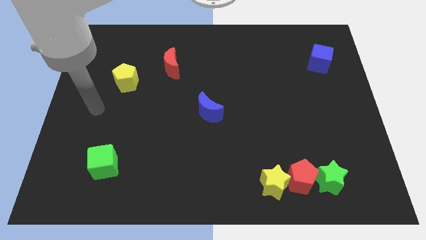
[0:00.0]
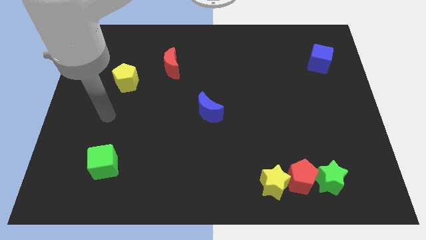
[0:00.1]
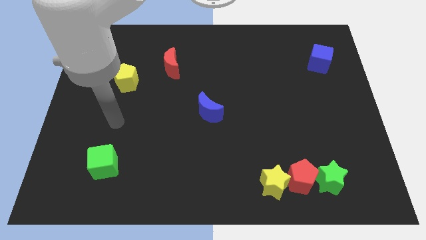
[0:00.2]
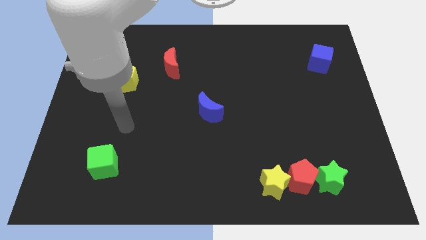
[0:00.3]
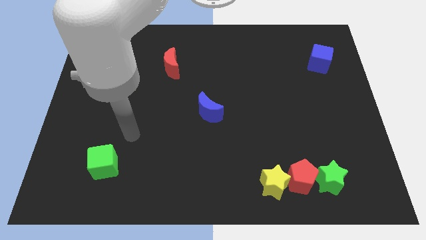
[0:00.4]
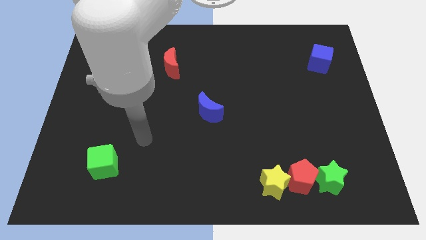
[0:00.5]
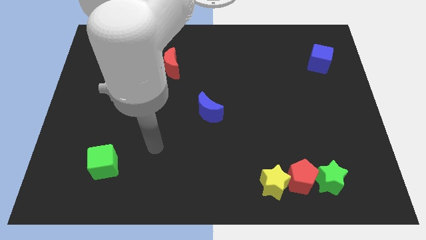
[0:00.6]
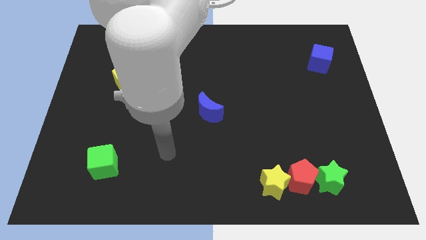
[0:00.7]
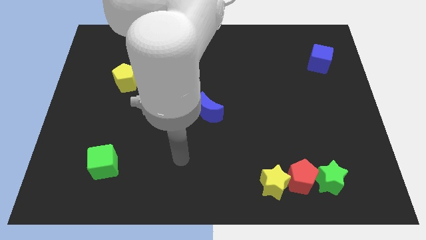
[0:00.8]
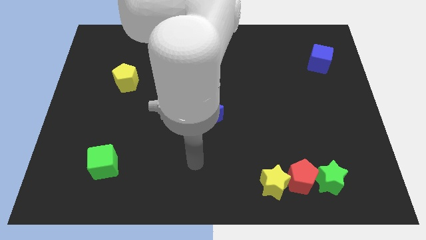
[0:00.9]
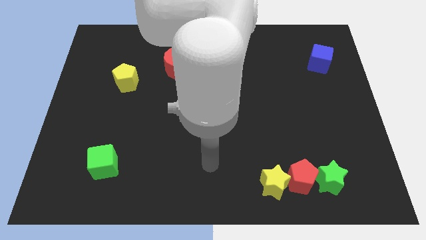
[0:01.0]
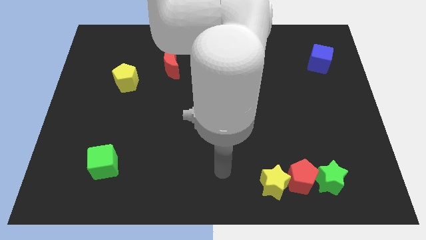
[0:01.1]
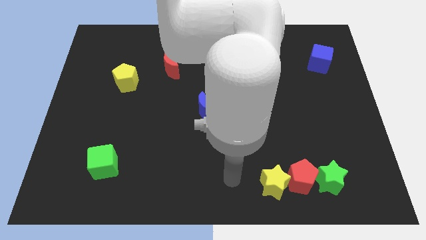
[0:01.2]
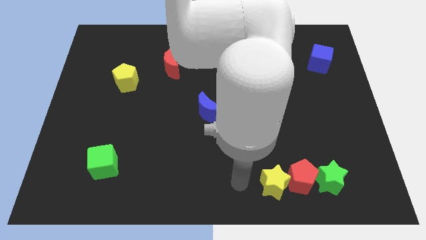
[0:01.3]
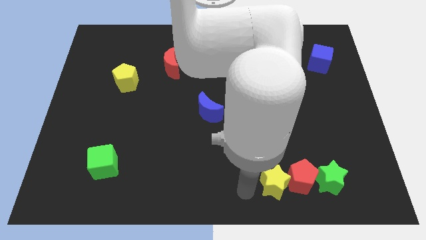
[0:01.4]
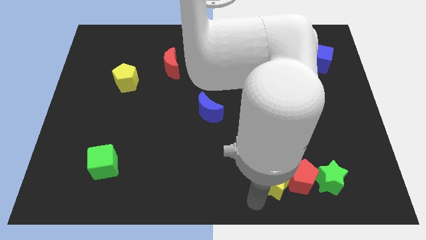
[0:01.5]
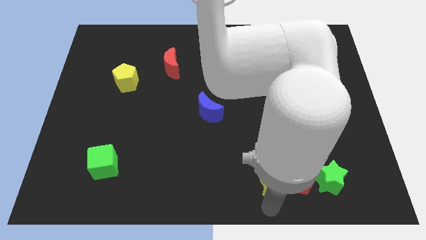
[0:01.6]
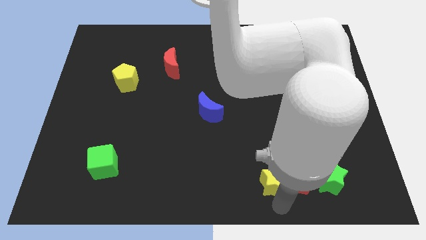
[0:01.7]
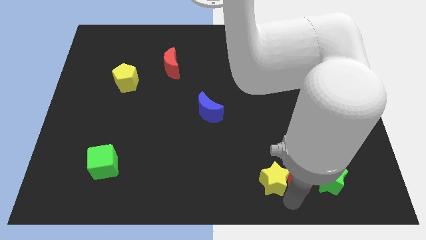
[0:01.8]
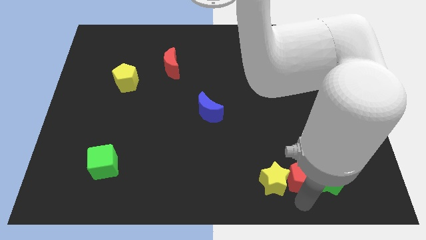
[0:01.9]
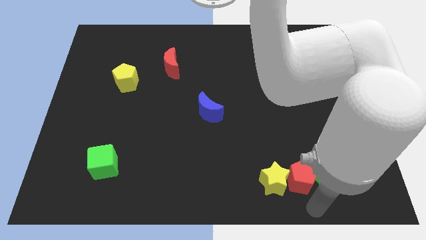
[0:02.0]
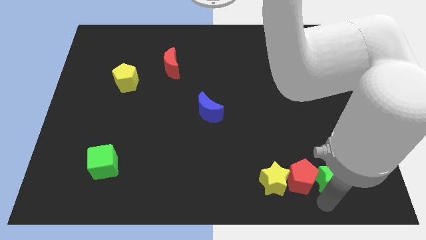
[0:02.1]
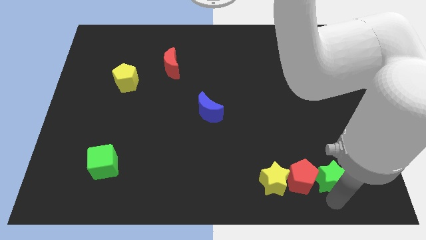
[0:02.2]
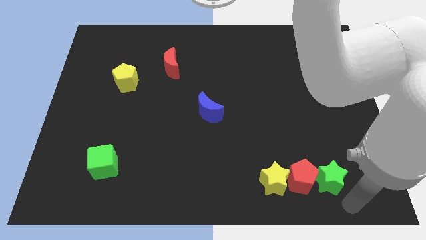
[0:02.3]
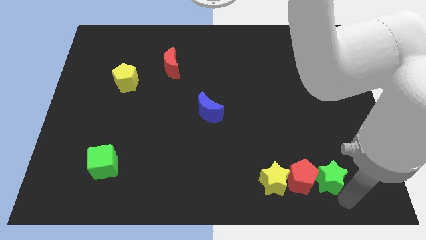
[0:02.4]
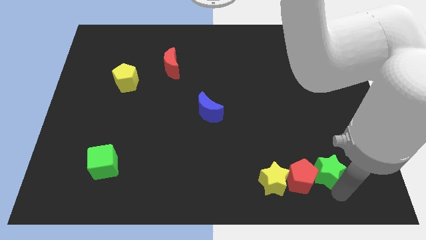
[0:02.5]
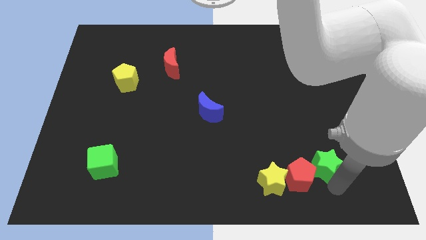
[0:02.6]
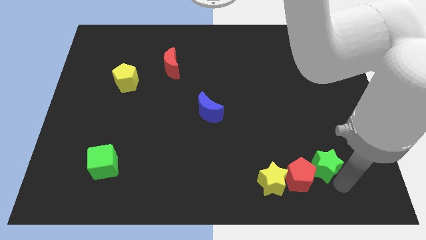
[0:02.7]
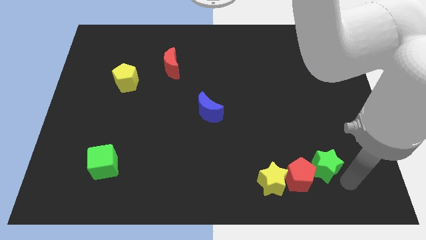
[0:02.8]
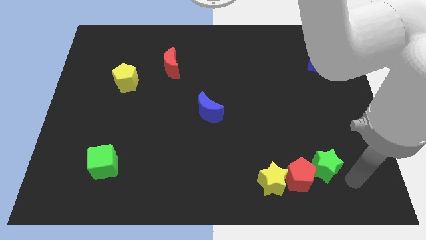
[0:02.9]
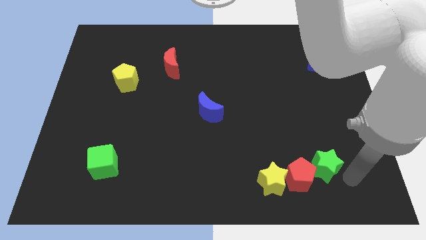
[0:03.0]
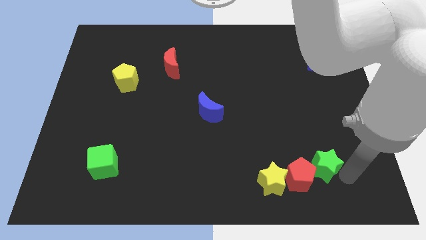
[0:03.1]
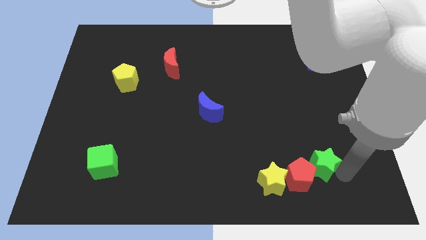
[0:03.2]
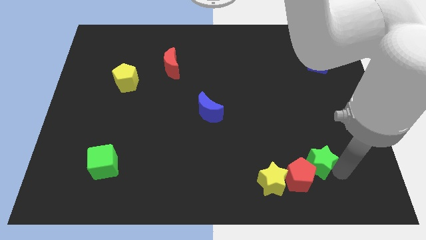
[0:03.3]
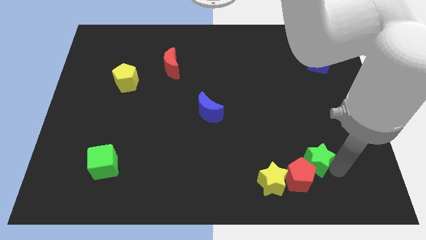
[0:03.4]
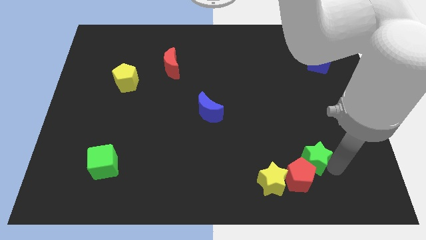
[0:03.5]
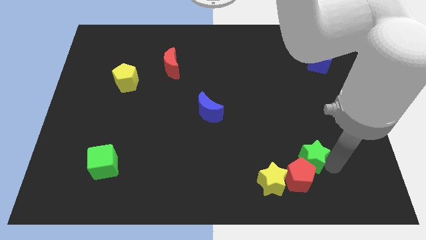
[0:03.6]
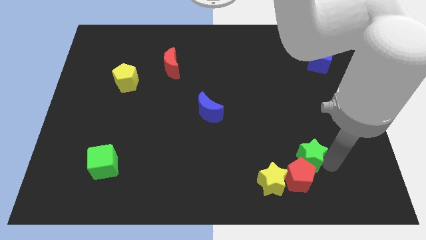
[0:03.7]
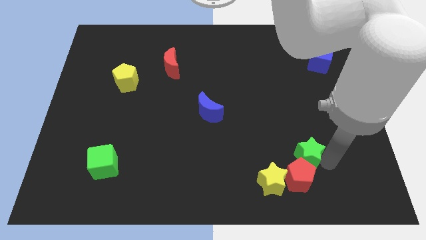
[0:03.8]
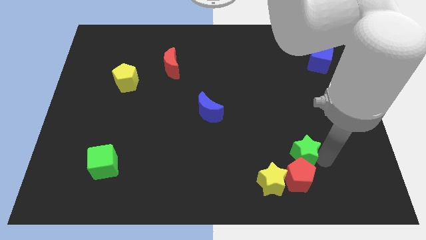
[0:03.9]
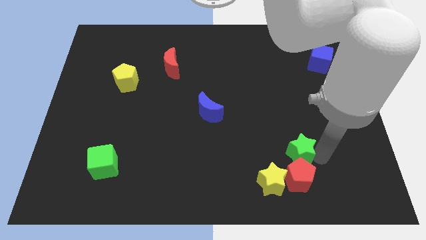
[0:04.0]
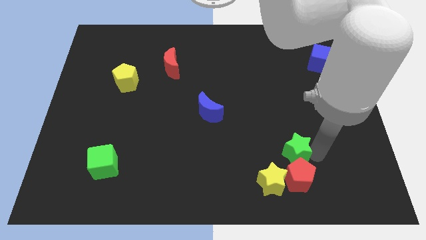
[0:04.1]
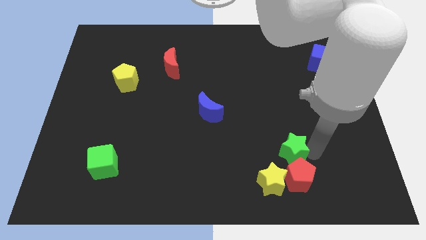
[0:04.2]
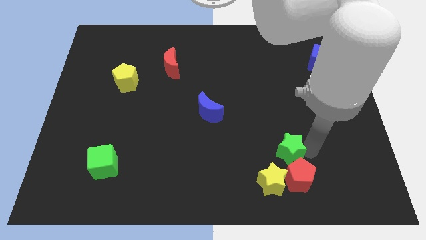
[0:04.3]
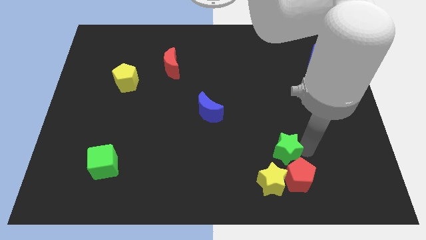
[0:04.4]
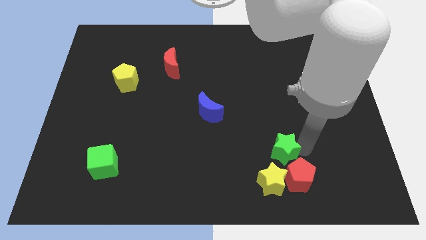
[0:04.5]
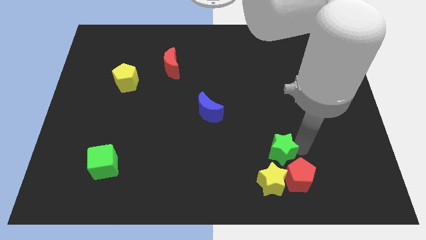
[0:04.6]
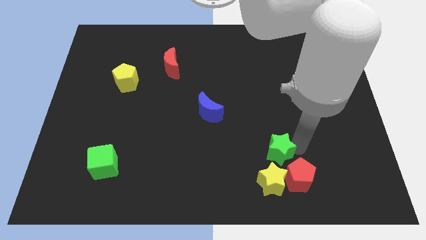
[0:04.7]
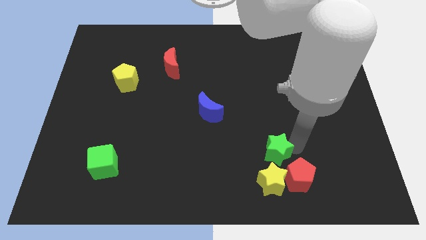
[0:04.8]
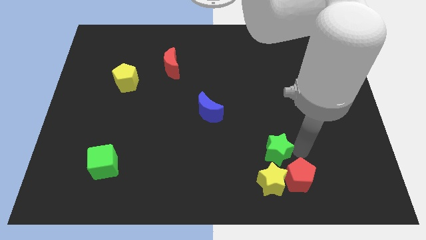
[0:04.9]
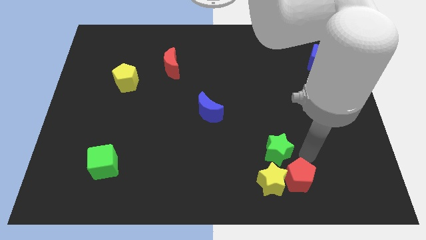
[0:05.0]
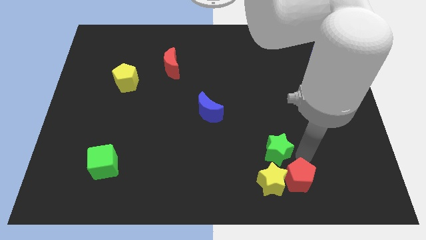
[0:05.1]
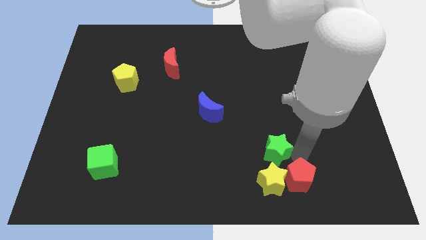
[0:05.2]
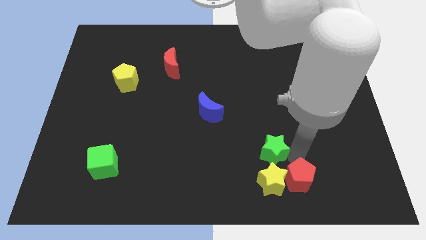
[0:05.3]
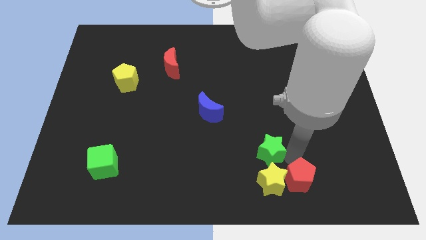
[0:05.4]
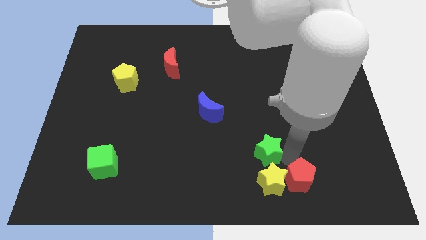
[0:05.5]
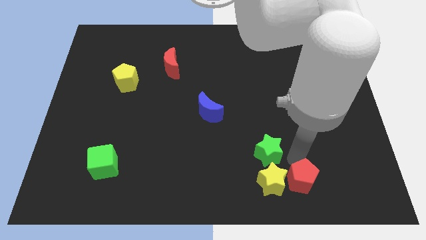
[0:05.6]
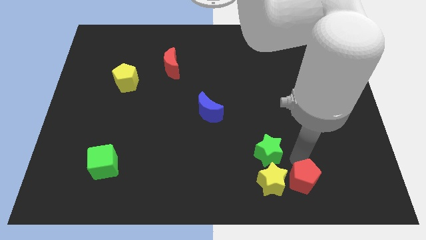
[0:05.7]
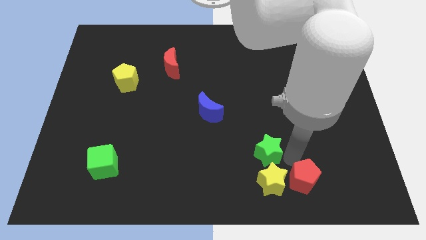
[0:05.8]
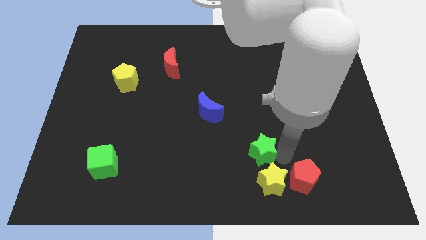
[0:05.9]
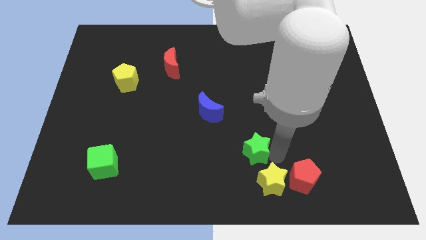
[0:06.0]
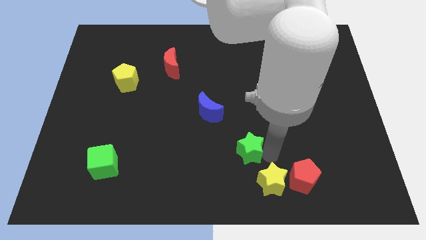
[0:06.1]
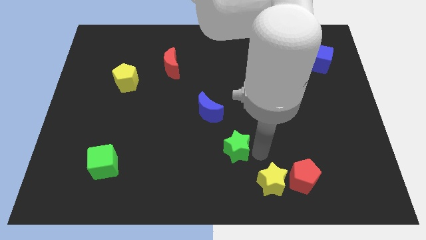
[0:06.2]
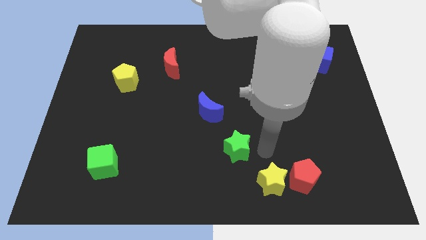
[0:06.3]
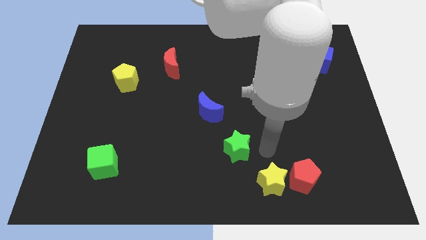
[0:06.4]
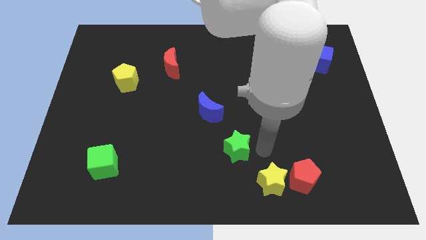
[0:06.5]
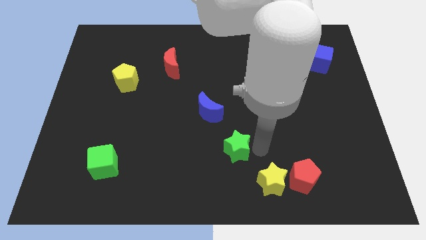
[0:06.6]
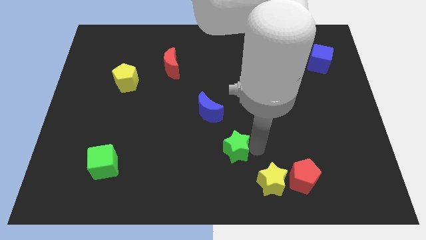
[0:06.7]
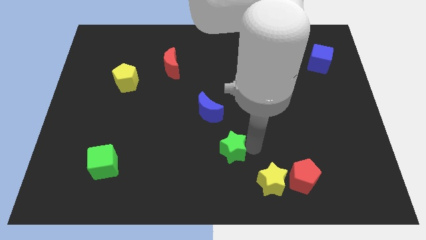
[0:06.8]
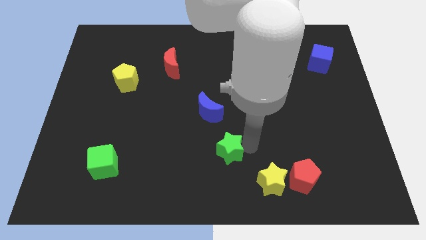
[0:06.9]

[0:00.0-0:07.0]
slide the green star to the bottom of the blue moon
